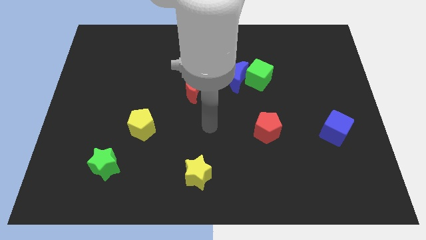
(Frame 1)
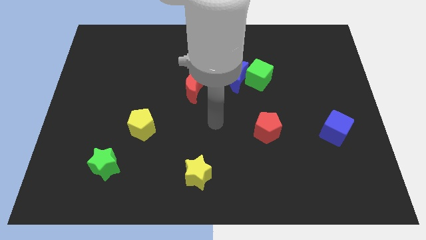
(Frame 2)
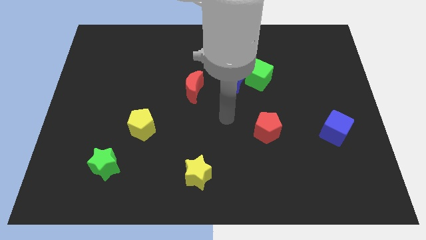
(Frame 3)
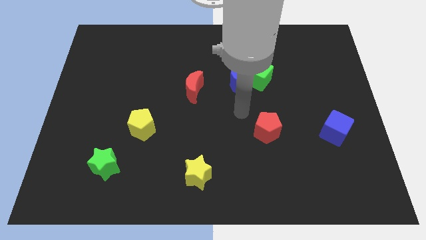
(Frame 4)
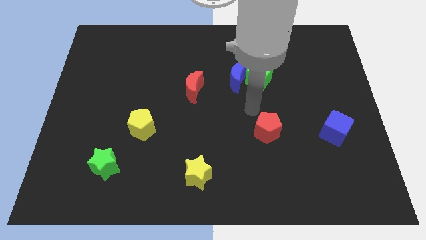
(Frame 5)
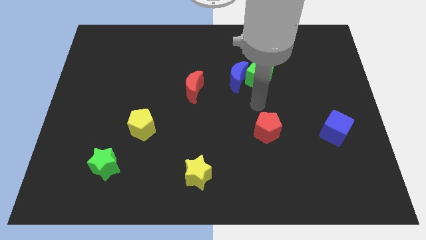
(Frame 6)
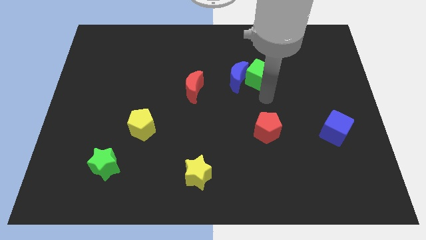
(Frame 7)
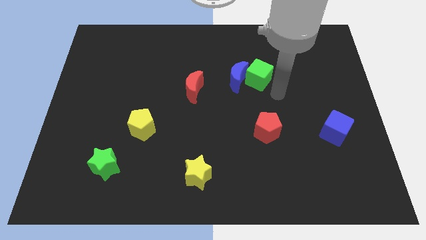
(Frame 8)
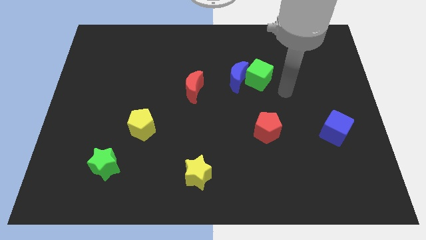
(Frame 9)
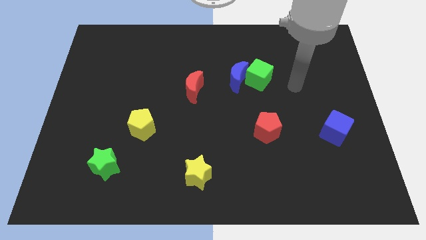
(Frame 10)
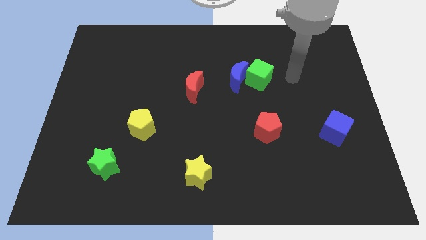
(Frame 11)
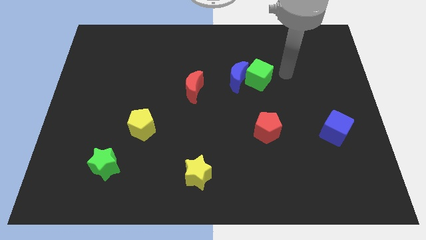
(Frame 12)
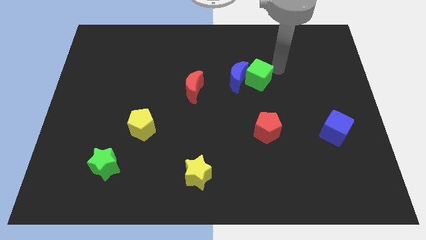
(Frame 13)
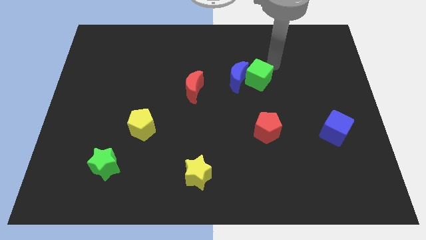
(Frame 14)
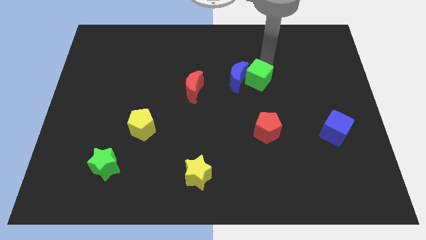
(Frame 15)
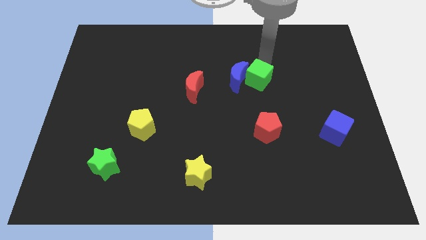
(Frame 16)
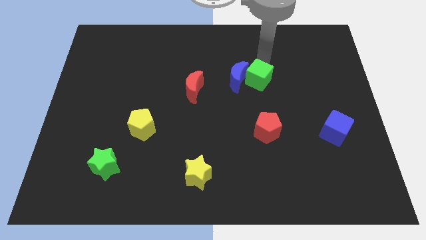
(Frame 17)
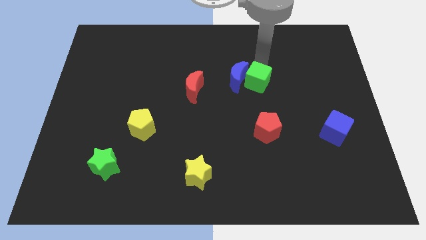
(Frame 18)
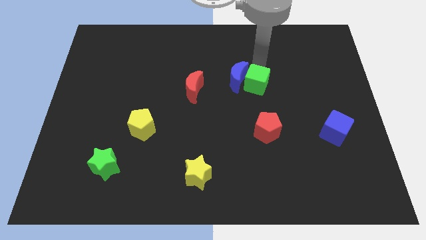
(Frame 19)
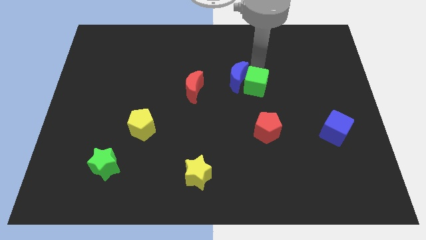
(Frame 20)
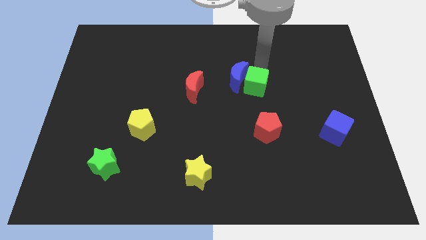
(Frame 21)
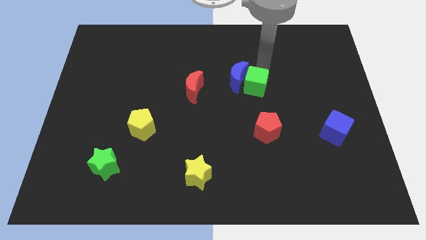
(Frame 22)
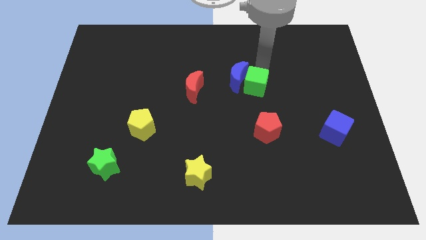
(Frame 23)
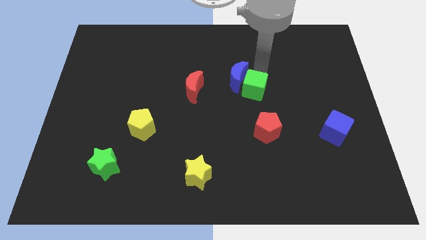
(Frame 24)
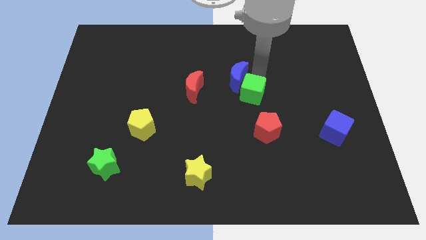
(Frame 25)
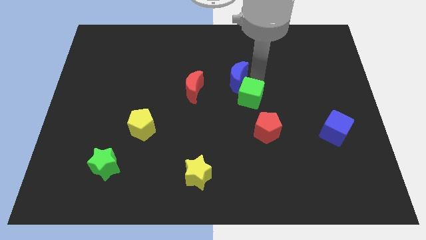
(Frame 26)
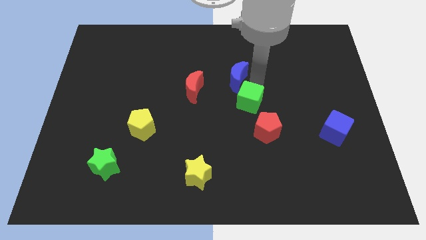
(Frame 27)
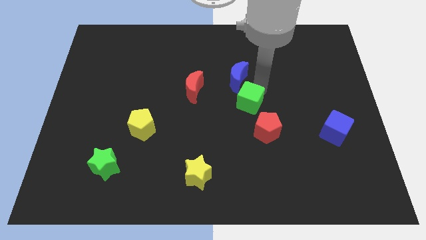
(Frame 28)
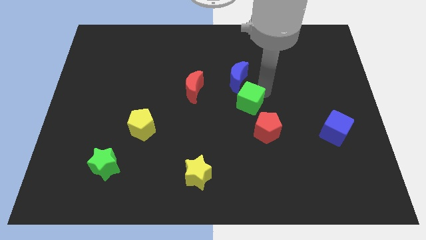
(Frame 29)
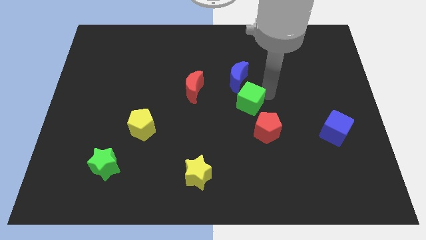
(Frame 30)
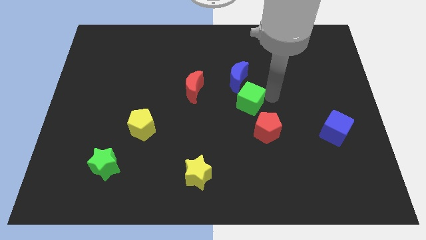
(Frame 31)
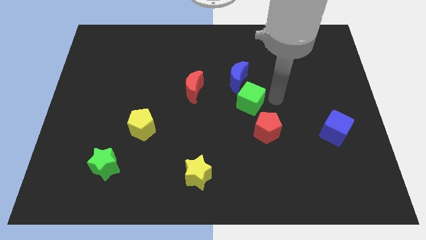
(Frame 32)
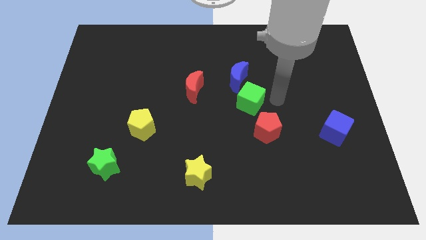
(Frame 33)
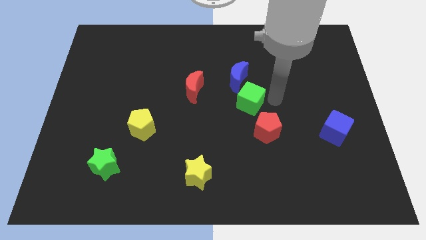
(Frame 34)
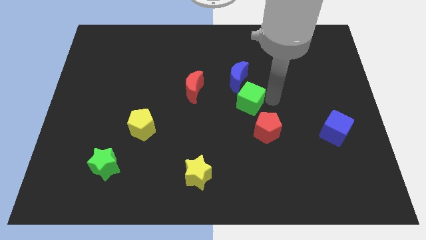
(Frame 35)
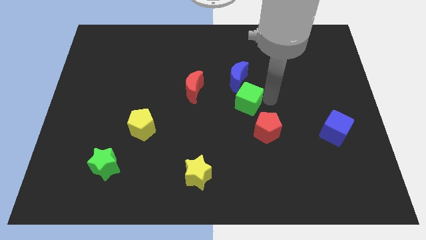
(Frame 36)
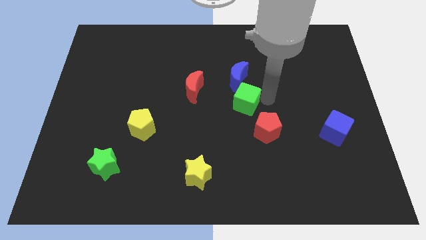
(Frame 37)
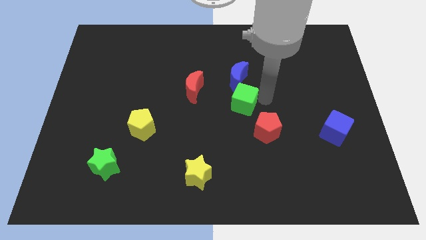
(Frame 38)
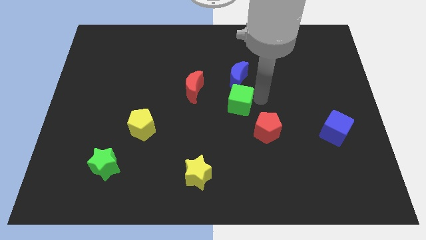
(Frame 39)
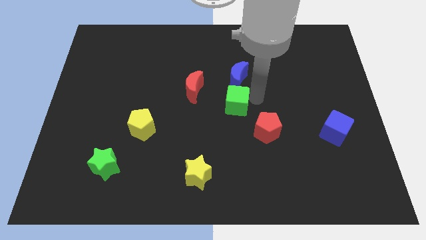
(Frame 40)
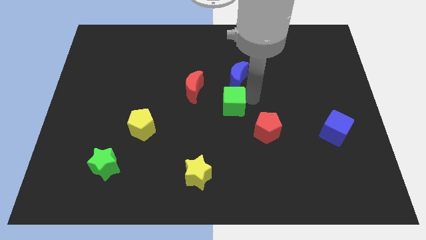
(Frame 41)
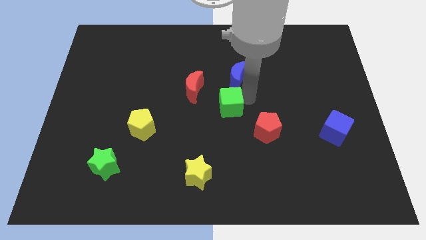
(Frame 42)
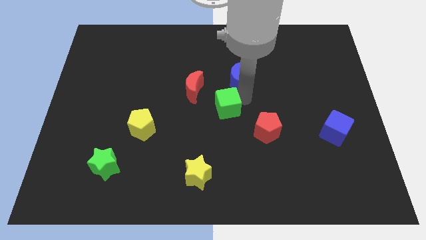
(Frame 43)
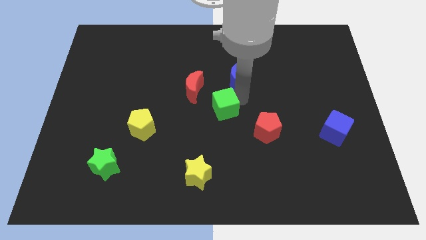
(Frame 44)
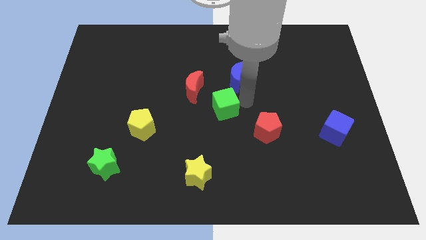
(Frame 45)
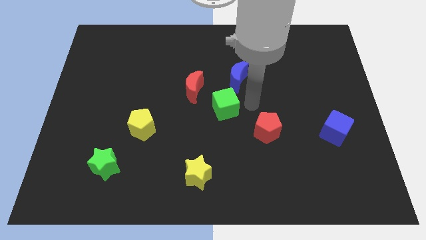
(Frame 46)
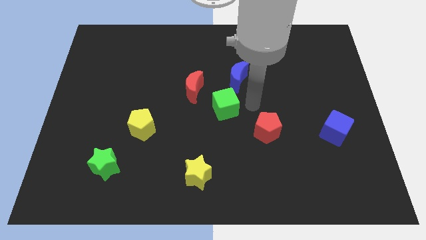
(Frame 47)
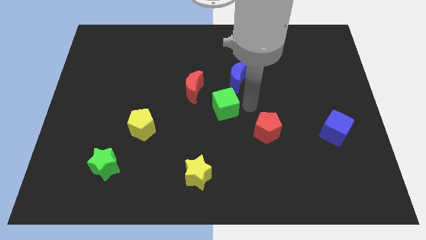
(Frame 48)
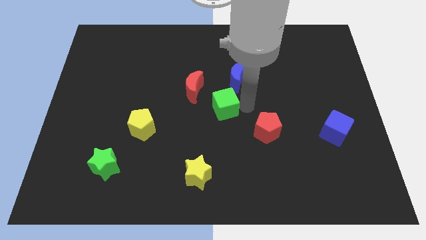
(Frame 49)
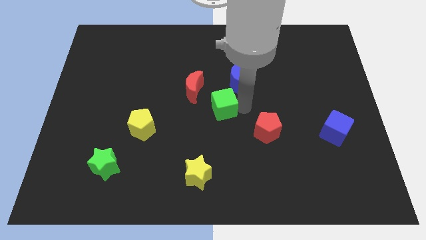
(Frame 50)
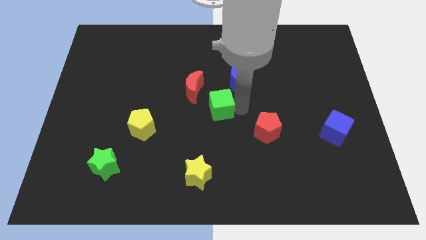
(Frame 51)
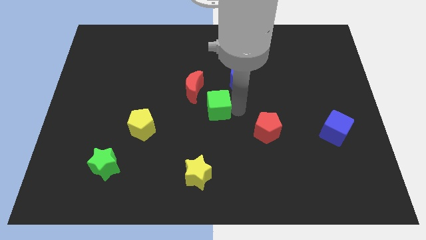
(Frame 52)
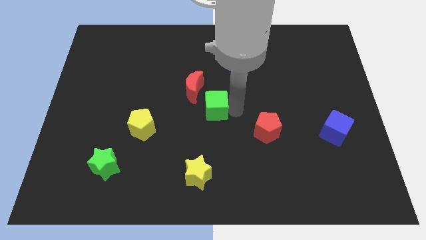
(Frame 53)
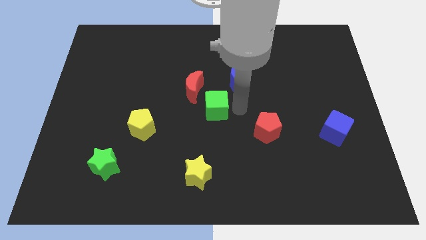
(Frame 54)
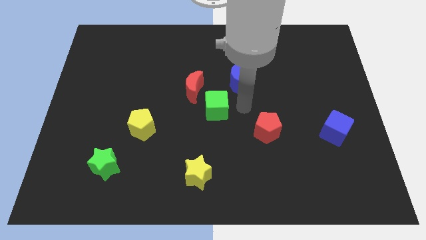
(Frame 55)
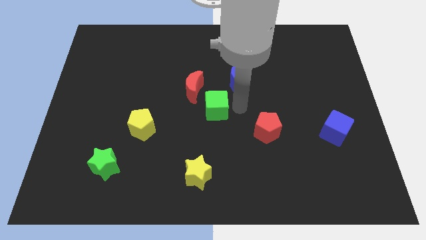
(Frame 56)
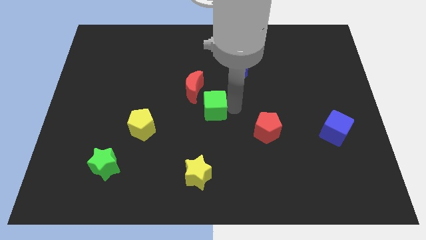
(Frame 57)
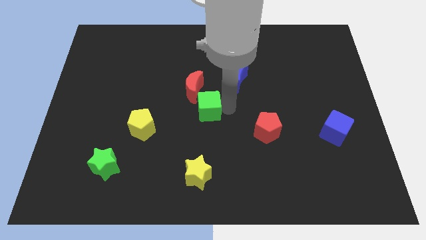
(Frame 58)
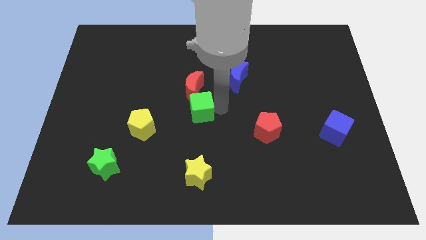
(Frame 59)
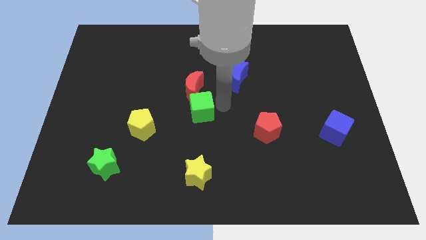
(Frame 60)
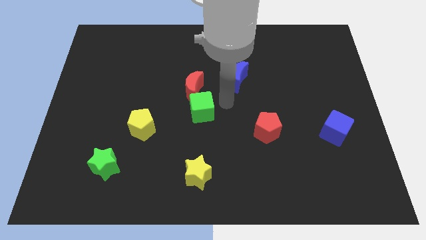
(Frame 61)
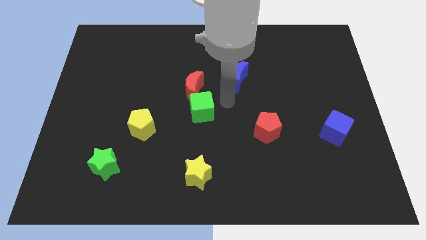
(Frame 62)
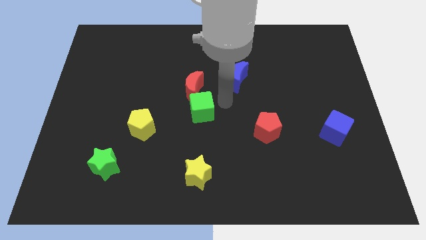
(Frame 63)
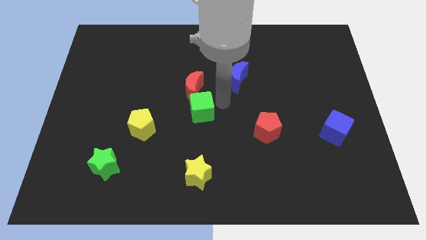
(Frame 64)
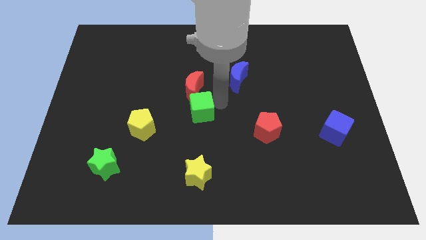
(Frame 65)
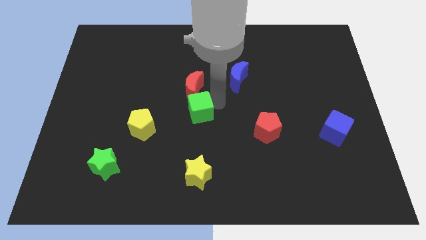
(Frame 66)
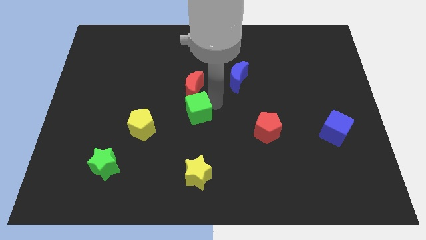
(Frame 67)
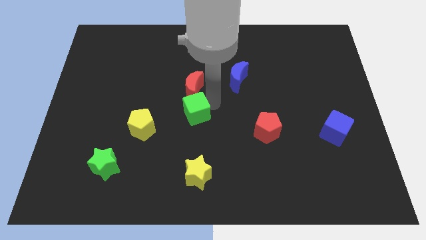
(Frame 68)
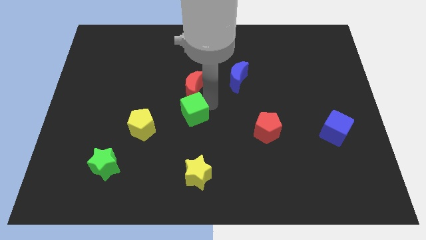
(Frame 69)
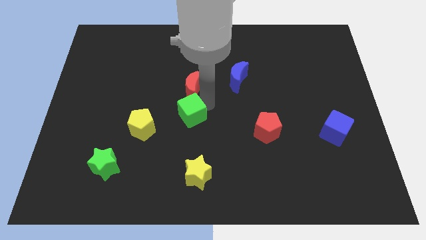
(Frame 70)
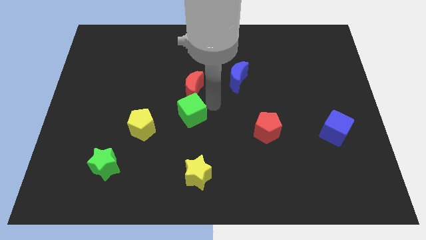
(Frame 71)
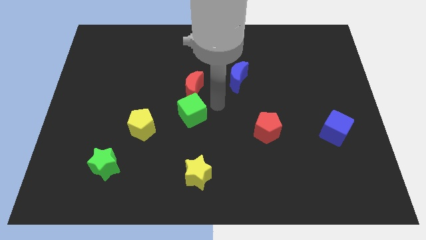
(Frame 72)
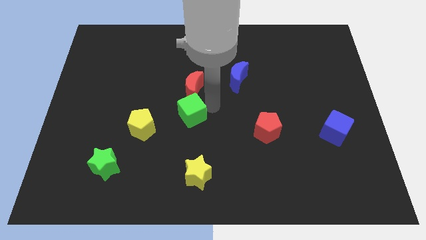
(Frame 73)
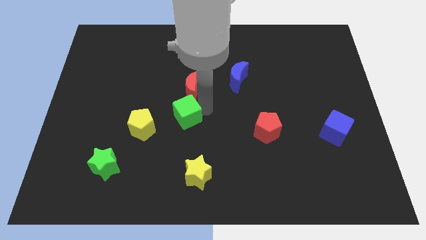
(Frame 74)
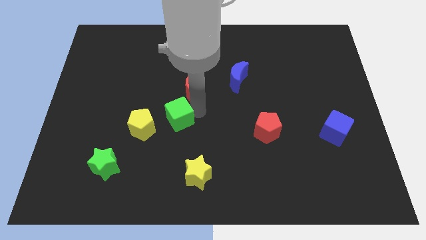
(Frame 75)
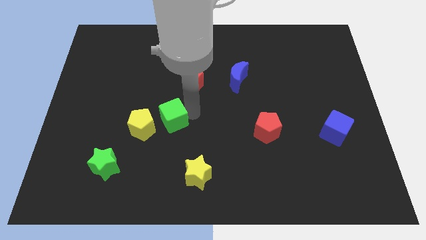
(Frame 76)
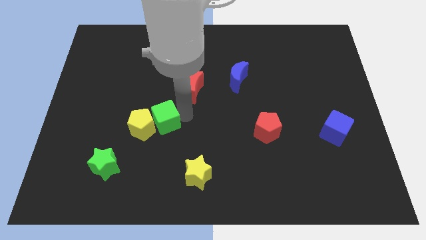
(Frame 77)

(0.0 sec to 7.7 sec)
put the green cube towards the yellow pentagon
